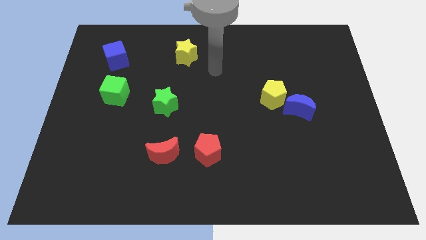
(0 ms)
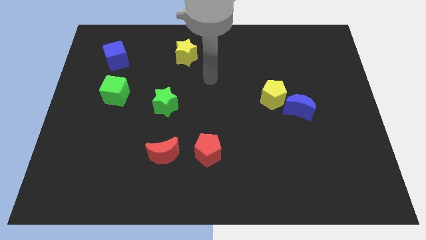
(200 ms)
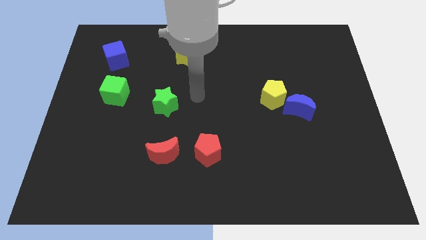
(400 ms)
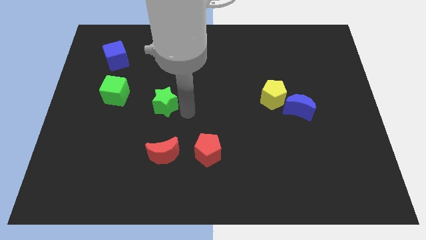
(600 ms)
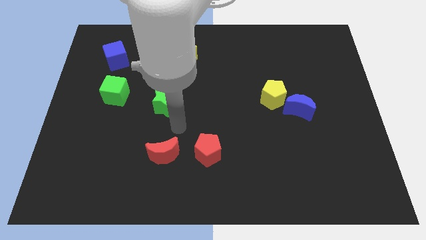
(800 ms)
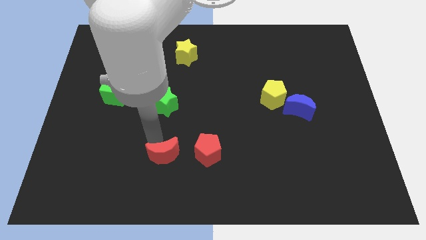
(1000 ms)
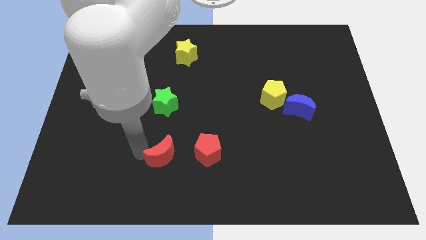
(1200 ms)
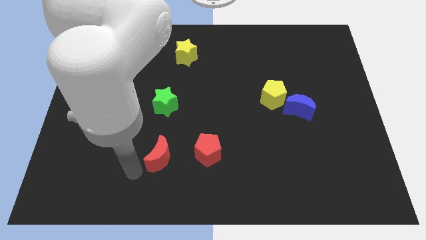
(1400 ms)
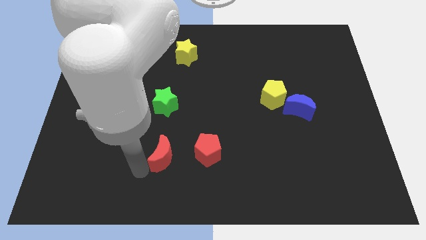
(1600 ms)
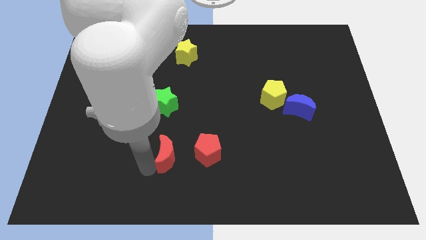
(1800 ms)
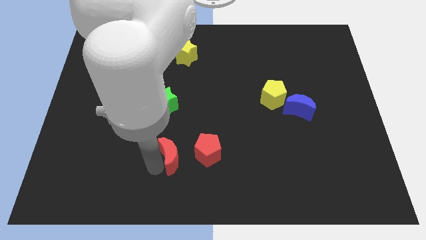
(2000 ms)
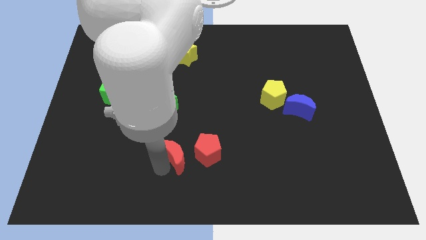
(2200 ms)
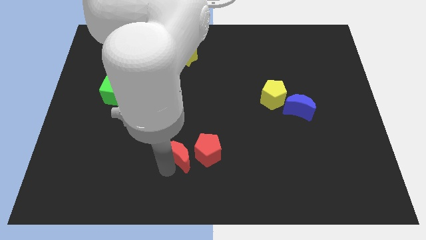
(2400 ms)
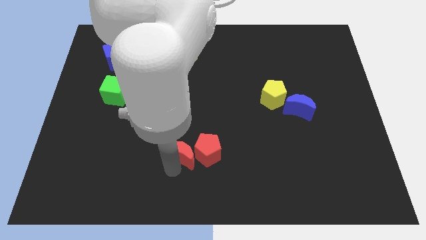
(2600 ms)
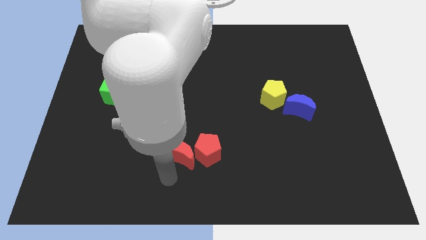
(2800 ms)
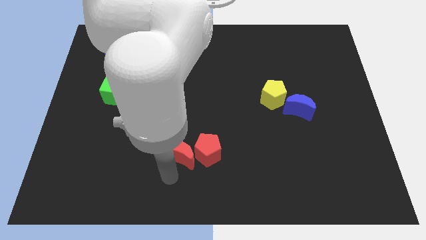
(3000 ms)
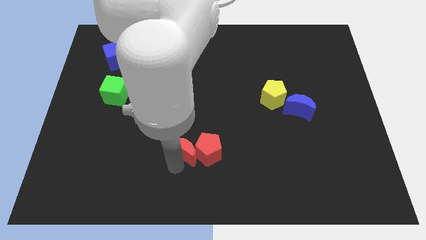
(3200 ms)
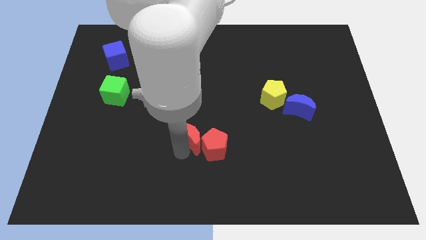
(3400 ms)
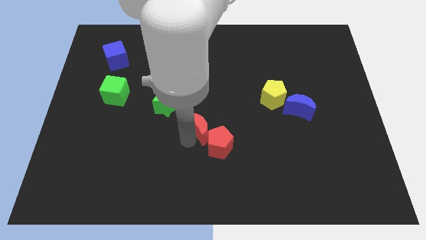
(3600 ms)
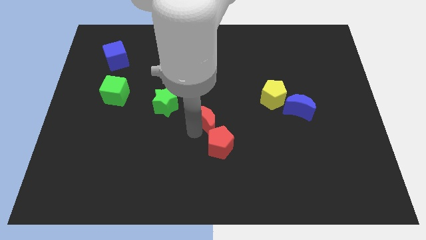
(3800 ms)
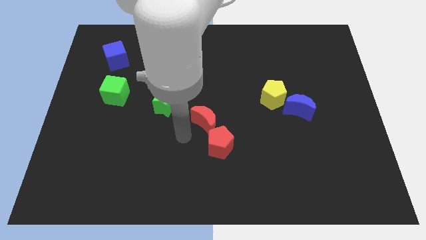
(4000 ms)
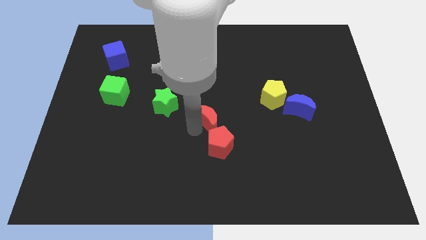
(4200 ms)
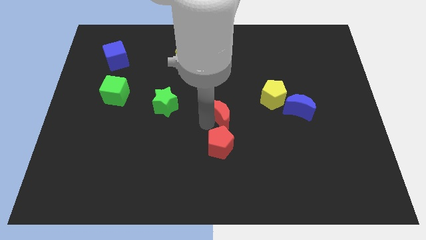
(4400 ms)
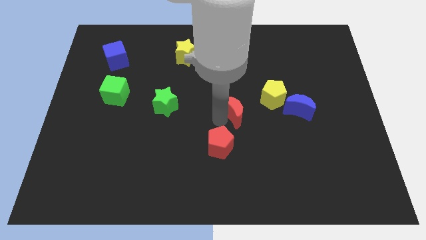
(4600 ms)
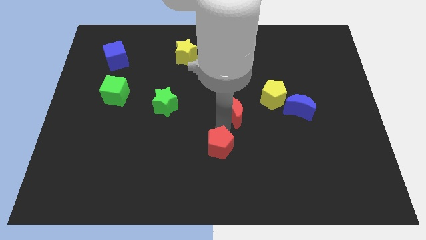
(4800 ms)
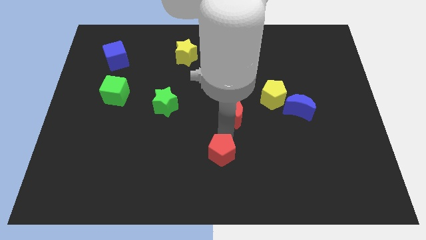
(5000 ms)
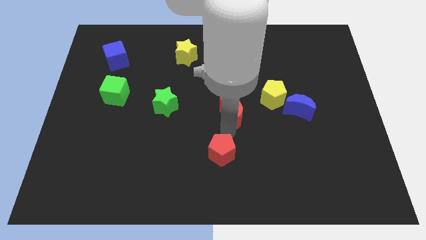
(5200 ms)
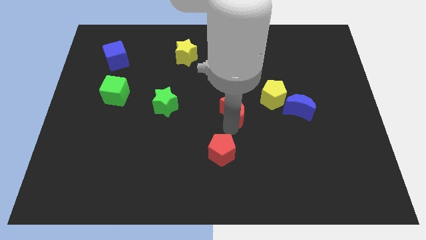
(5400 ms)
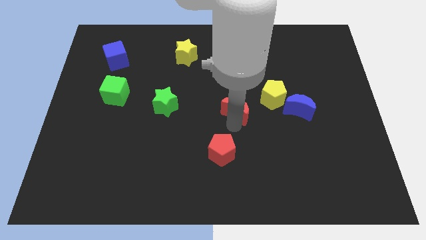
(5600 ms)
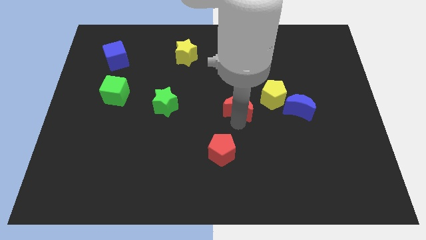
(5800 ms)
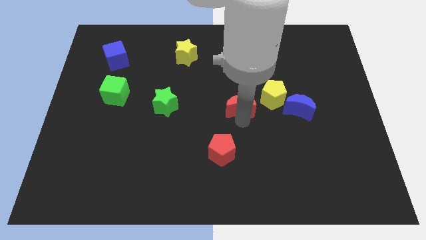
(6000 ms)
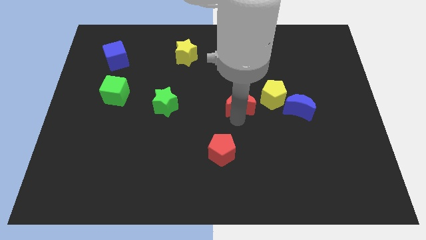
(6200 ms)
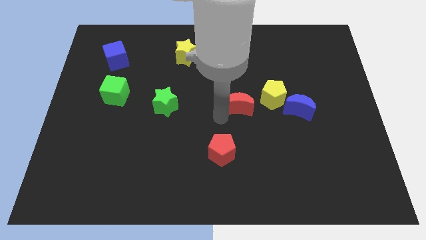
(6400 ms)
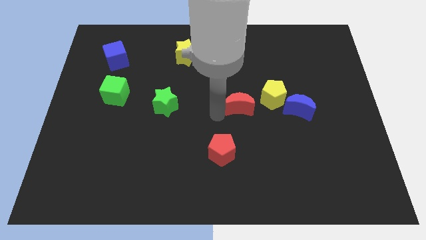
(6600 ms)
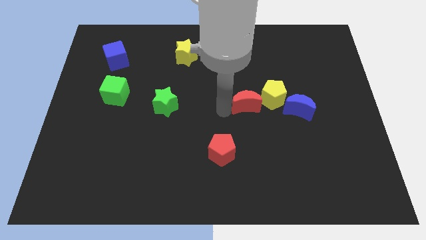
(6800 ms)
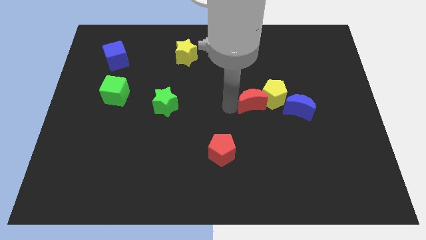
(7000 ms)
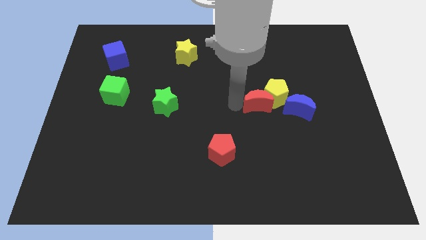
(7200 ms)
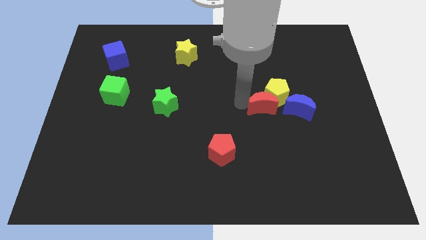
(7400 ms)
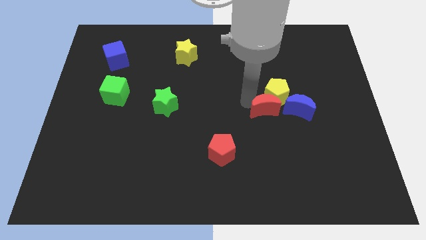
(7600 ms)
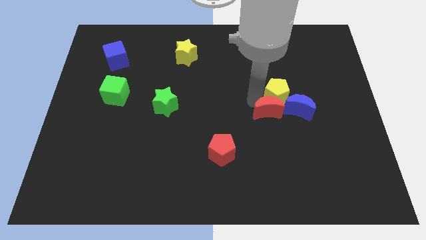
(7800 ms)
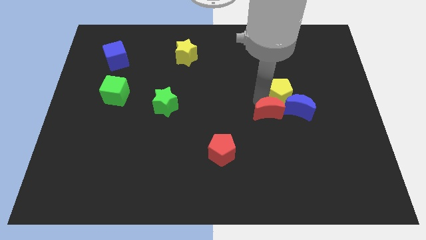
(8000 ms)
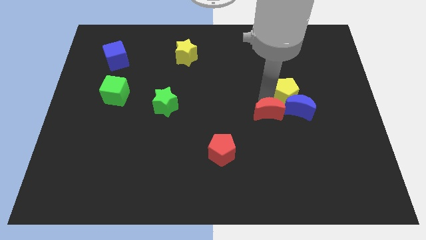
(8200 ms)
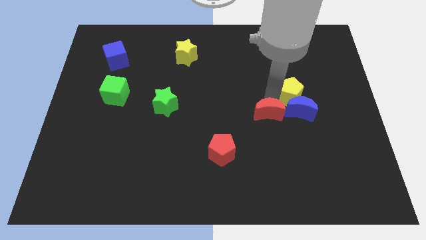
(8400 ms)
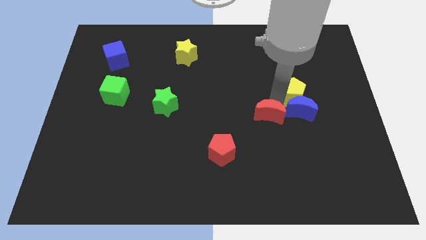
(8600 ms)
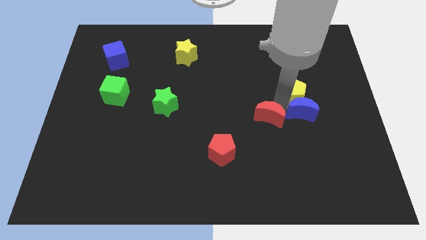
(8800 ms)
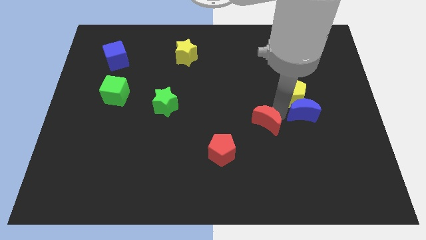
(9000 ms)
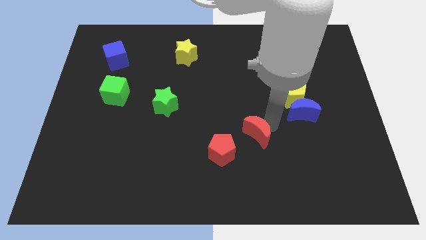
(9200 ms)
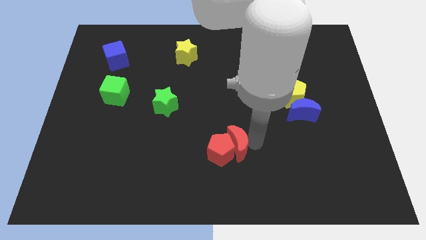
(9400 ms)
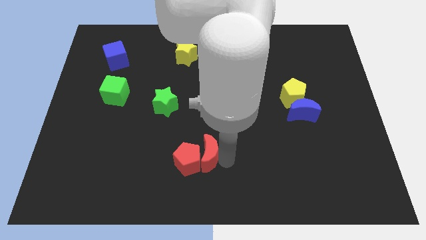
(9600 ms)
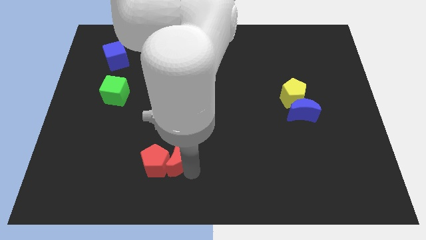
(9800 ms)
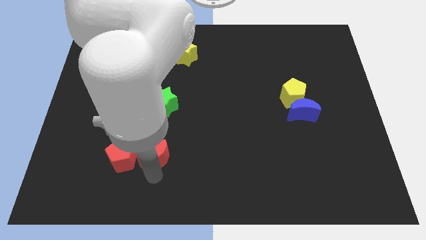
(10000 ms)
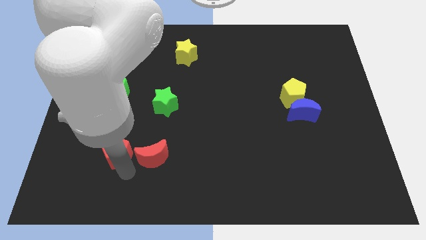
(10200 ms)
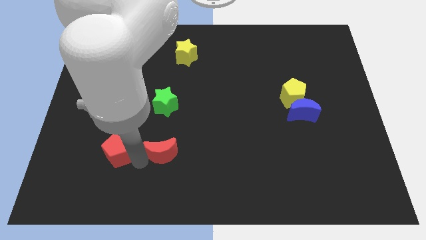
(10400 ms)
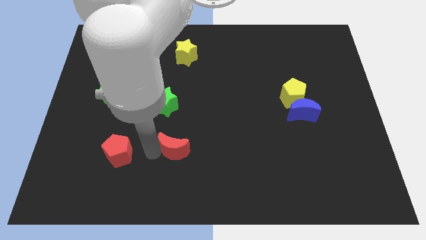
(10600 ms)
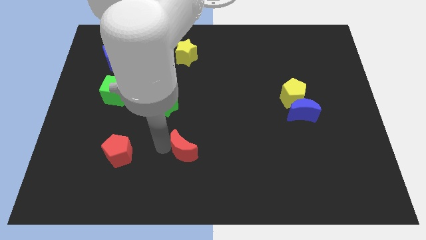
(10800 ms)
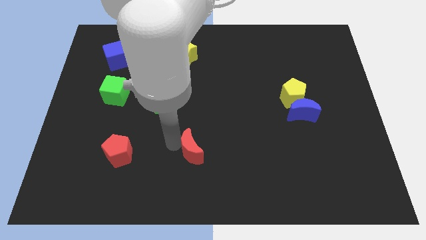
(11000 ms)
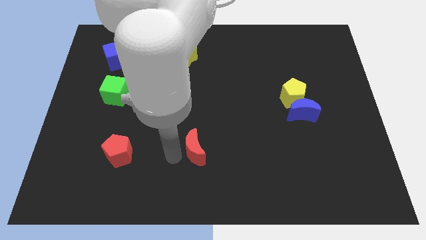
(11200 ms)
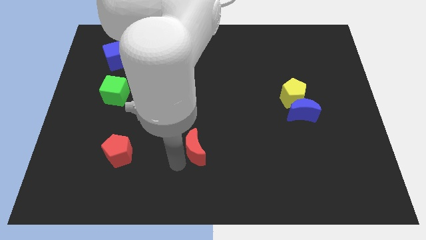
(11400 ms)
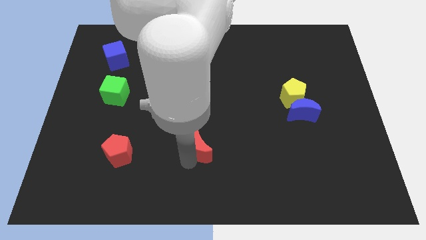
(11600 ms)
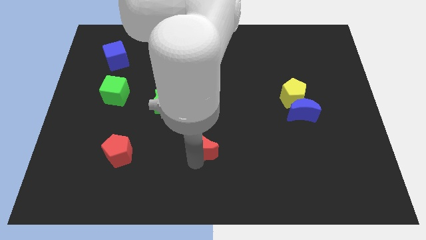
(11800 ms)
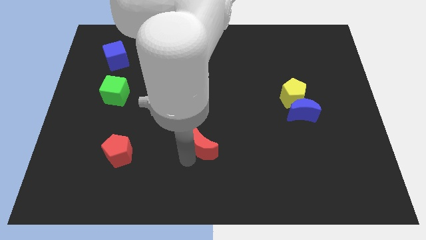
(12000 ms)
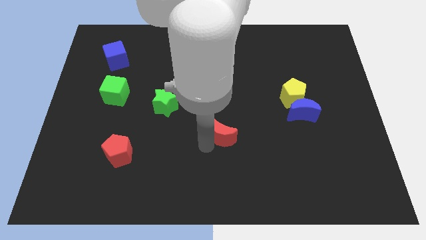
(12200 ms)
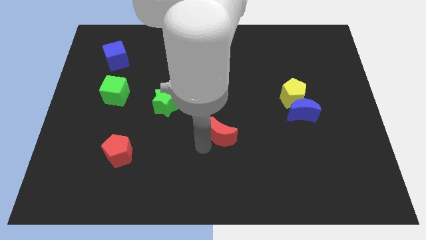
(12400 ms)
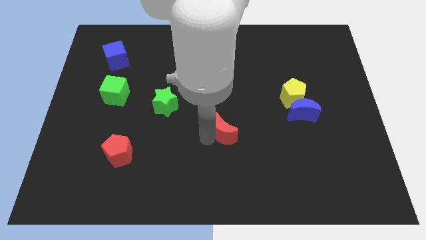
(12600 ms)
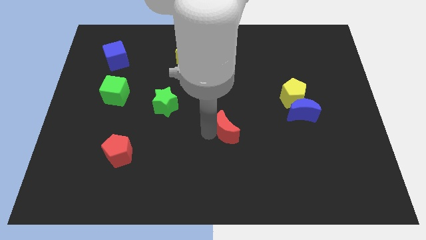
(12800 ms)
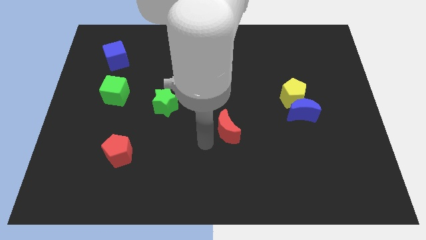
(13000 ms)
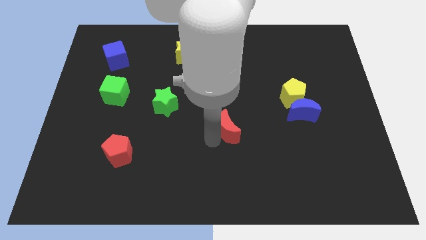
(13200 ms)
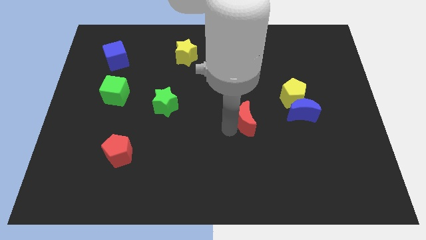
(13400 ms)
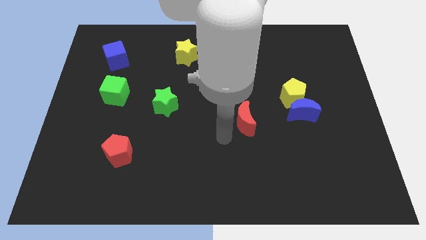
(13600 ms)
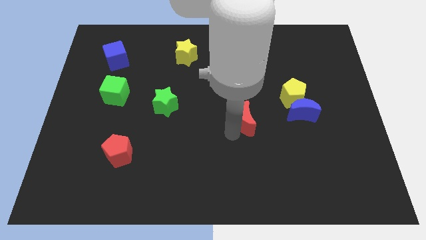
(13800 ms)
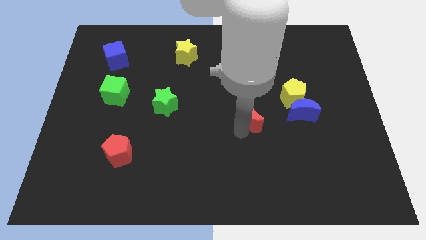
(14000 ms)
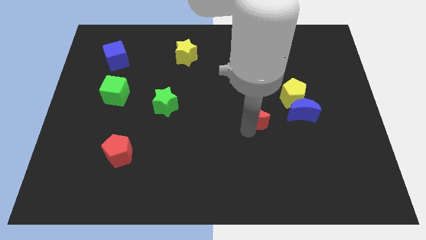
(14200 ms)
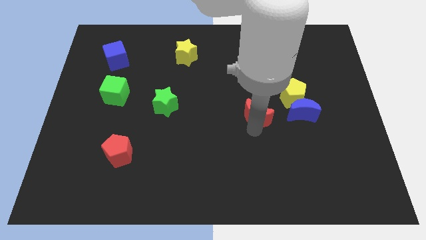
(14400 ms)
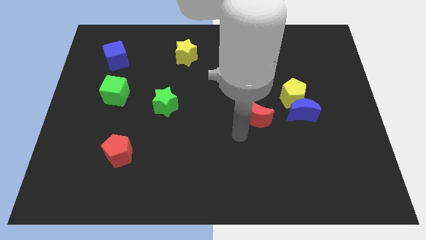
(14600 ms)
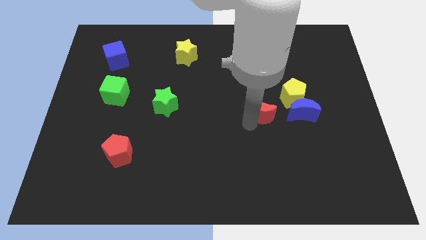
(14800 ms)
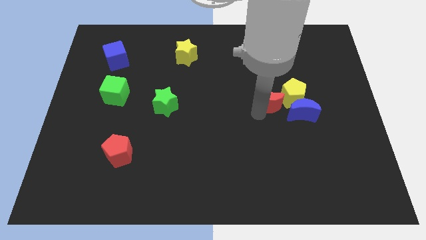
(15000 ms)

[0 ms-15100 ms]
put the red moon to the top left of the blue moon
